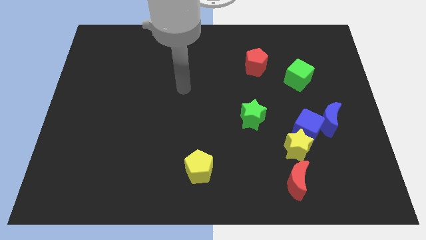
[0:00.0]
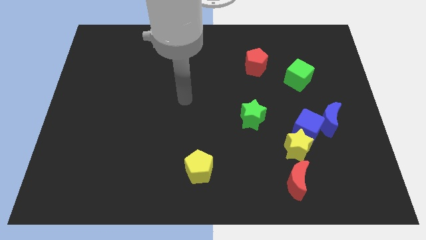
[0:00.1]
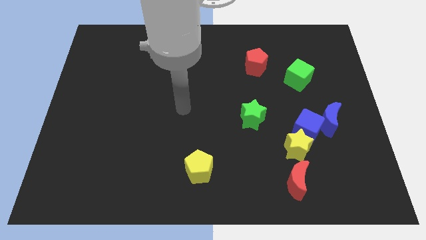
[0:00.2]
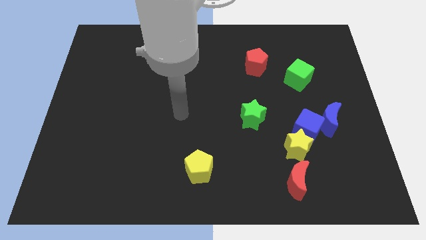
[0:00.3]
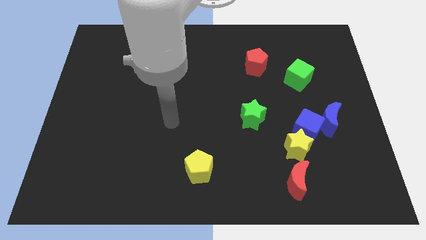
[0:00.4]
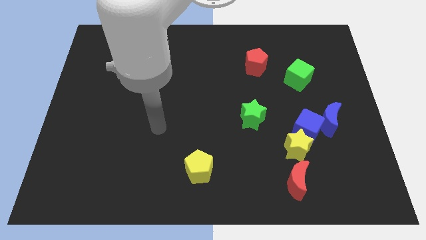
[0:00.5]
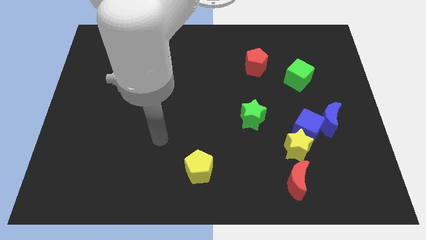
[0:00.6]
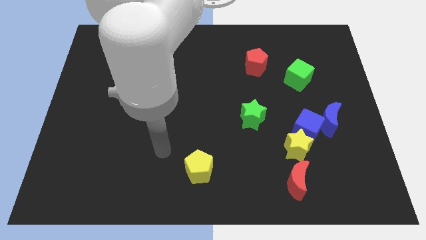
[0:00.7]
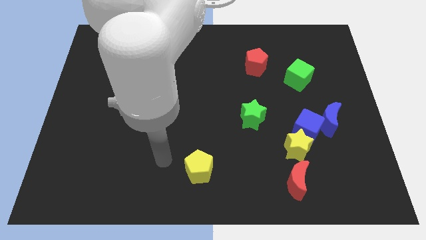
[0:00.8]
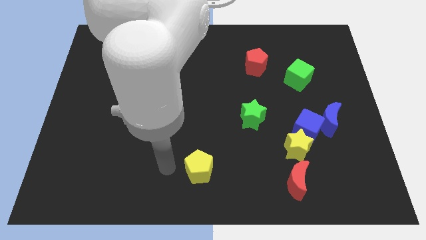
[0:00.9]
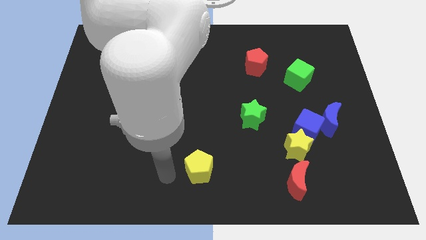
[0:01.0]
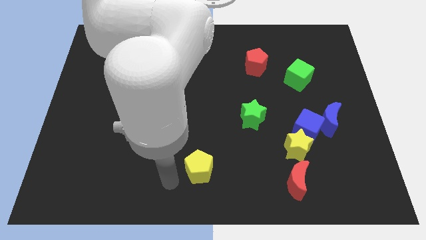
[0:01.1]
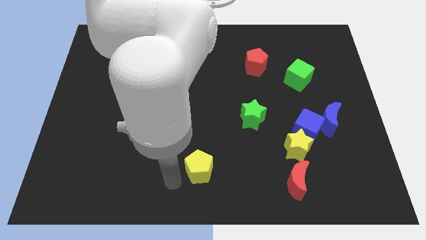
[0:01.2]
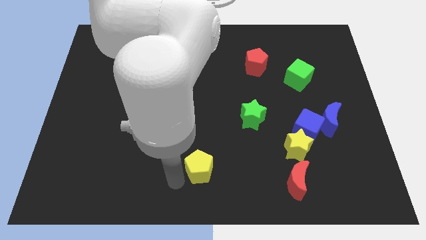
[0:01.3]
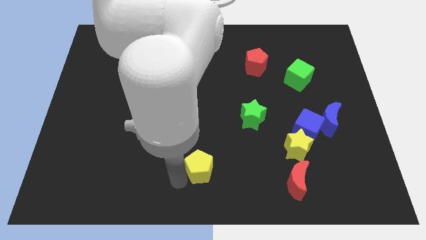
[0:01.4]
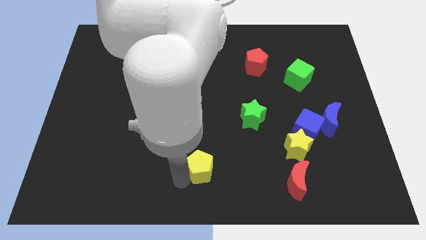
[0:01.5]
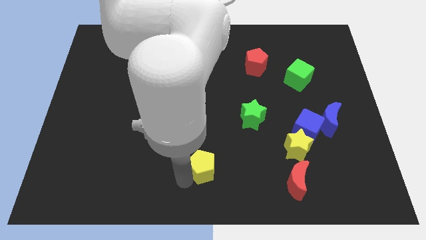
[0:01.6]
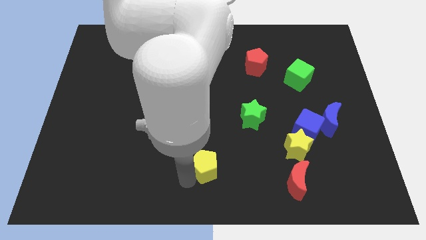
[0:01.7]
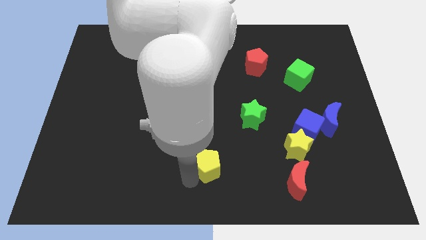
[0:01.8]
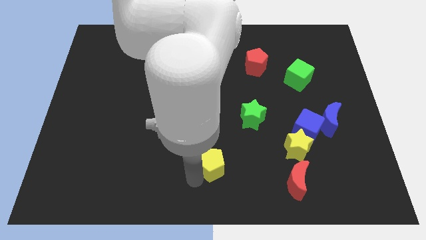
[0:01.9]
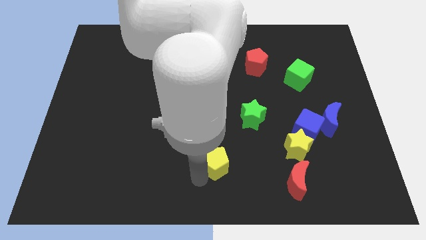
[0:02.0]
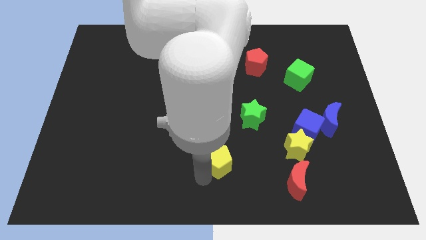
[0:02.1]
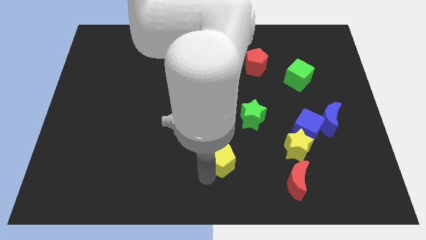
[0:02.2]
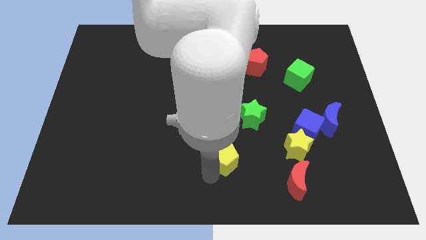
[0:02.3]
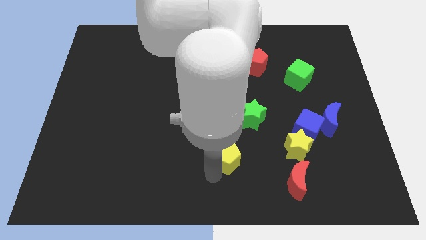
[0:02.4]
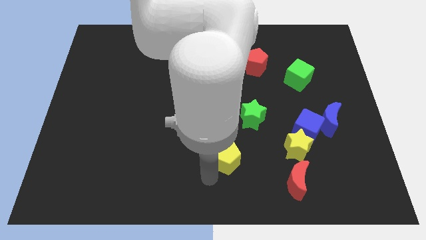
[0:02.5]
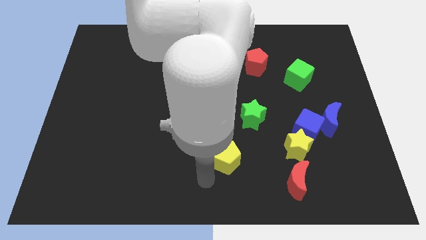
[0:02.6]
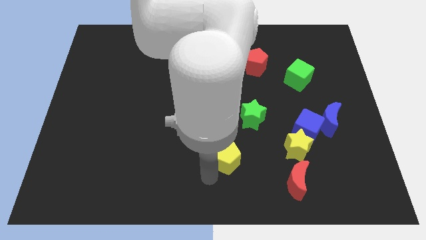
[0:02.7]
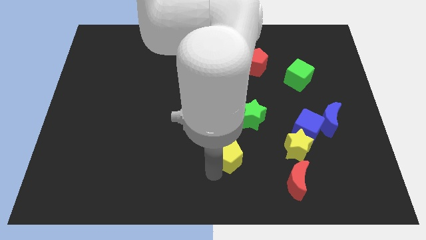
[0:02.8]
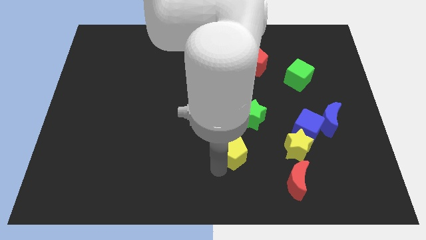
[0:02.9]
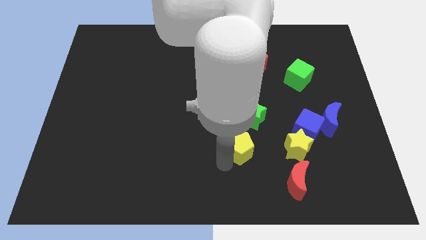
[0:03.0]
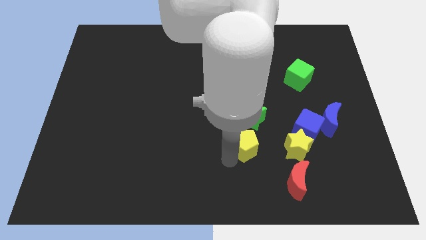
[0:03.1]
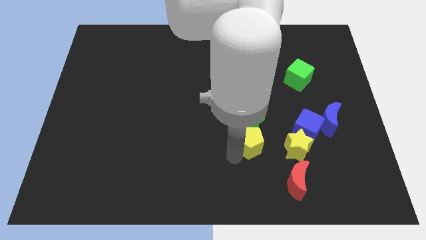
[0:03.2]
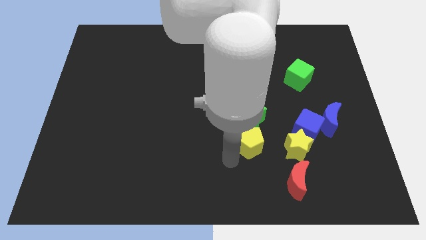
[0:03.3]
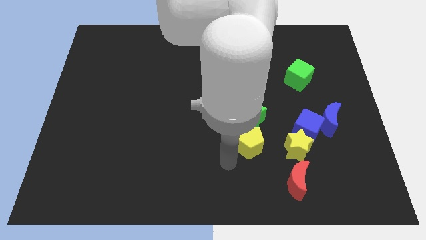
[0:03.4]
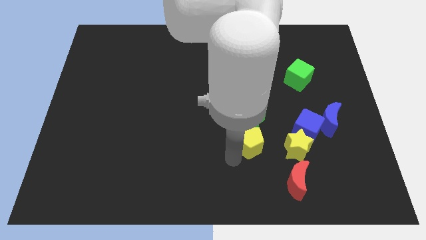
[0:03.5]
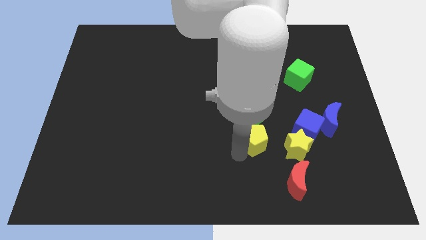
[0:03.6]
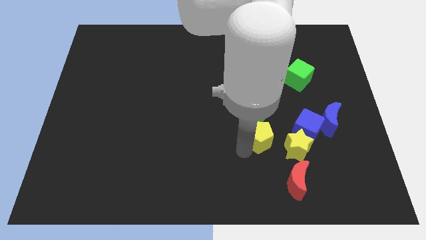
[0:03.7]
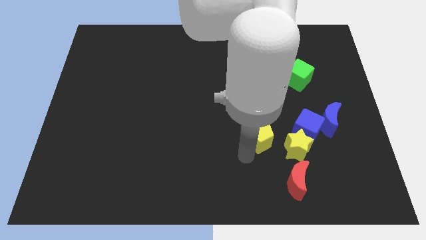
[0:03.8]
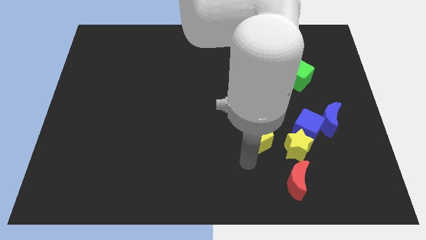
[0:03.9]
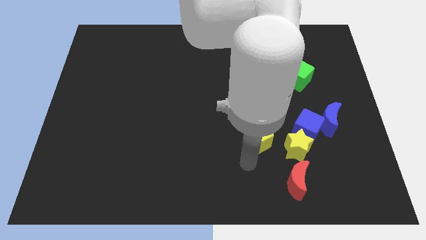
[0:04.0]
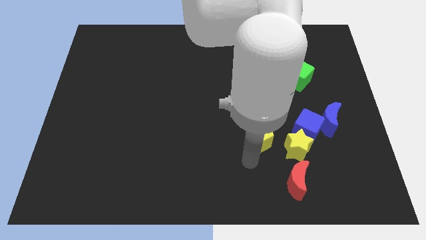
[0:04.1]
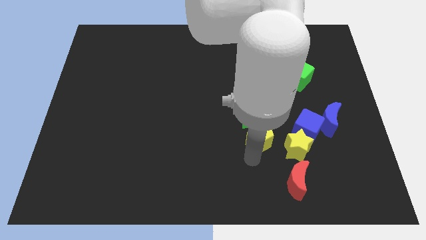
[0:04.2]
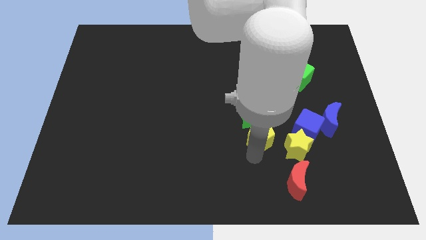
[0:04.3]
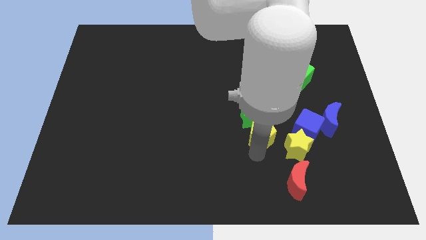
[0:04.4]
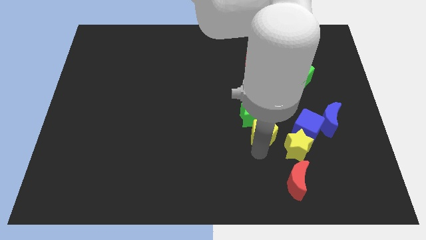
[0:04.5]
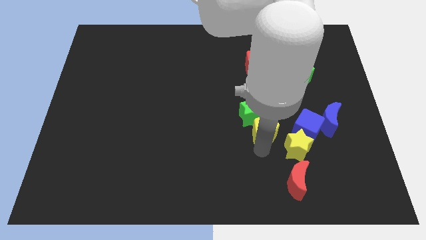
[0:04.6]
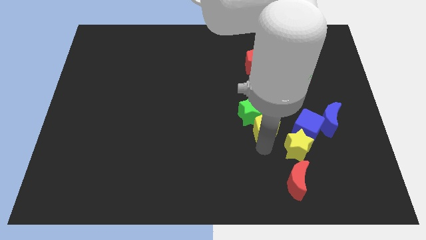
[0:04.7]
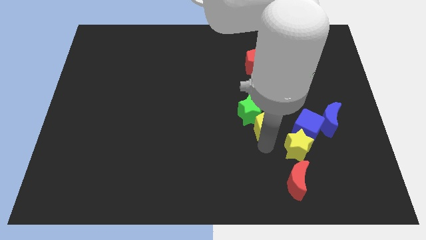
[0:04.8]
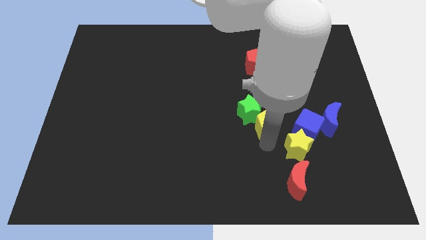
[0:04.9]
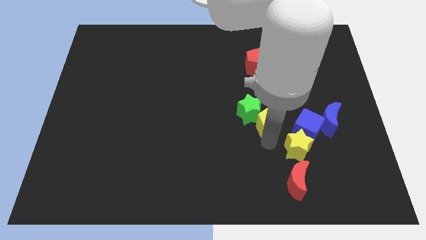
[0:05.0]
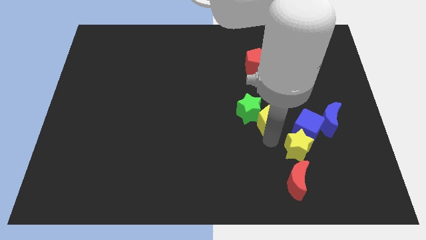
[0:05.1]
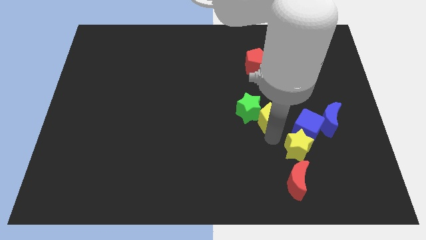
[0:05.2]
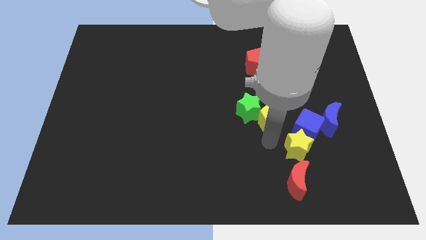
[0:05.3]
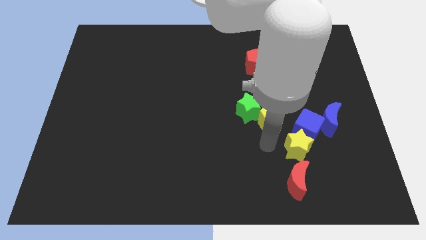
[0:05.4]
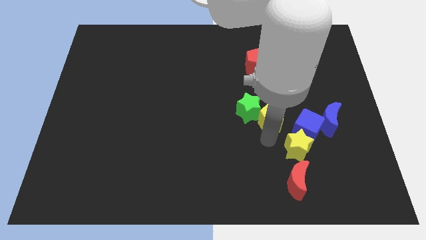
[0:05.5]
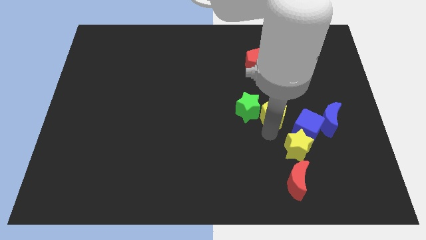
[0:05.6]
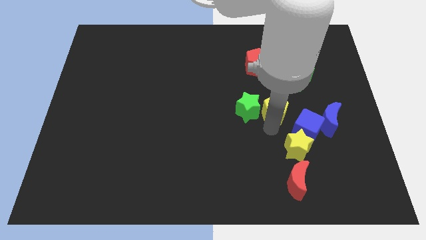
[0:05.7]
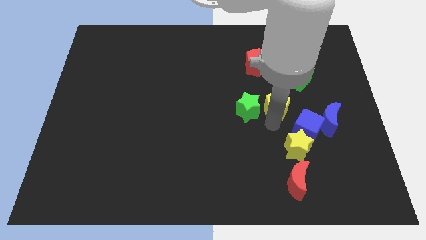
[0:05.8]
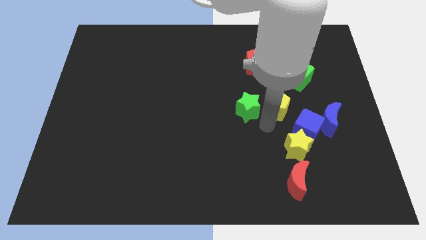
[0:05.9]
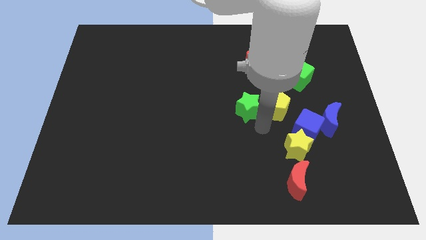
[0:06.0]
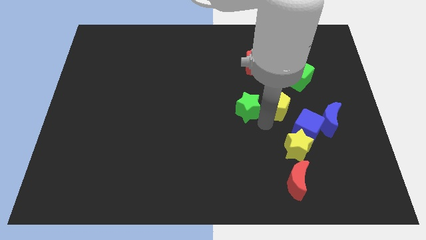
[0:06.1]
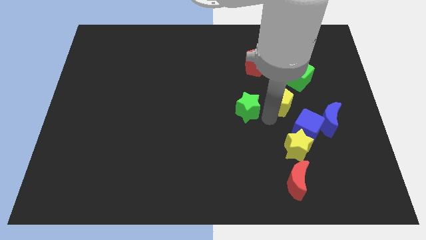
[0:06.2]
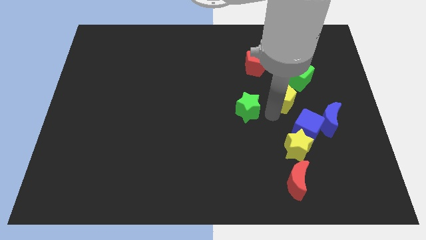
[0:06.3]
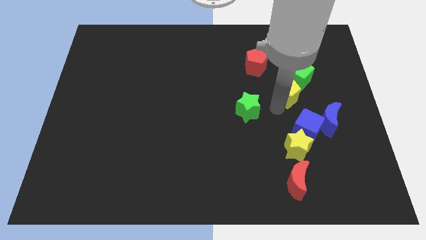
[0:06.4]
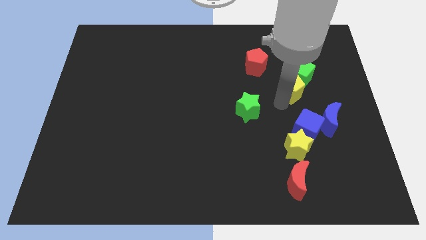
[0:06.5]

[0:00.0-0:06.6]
slide the yellow pentagon close to the green cube

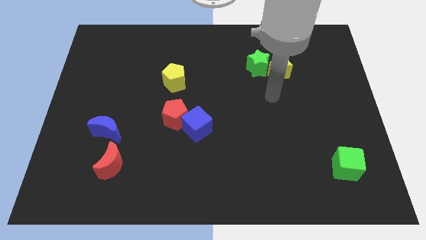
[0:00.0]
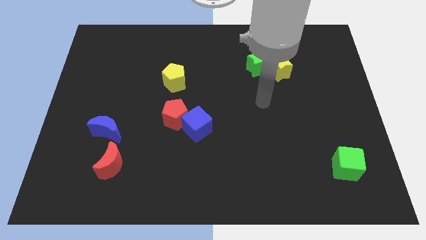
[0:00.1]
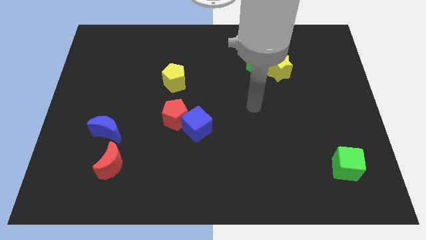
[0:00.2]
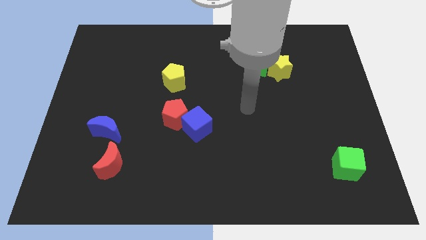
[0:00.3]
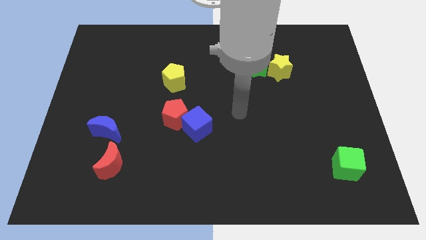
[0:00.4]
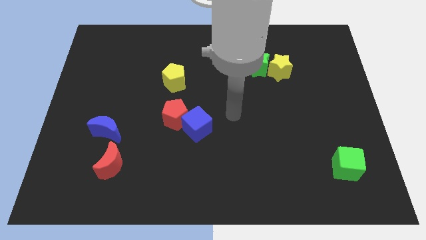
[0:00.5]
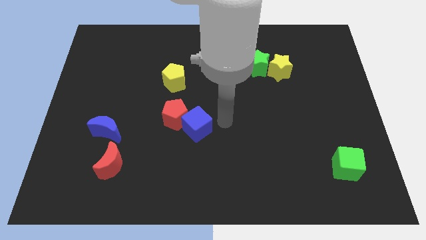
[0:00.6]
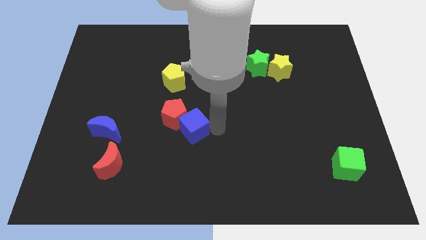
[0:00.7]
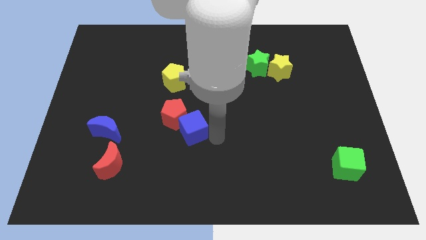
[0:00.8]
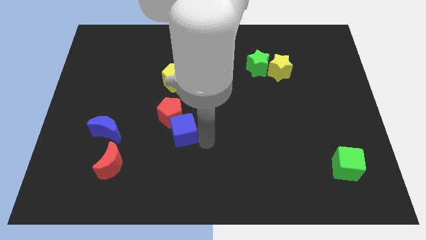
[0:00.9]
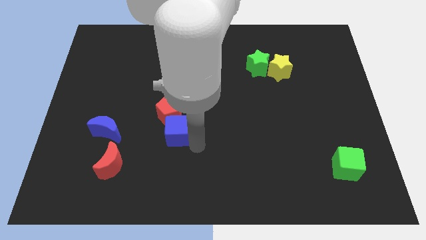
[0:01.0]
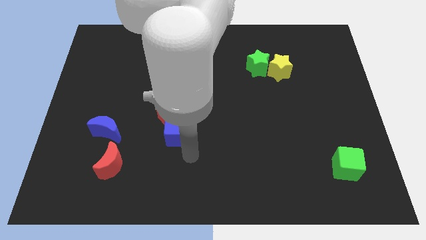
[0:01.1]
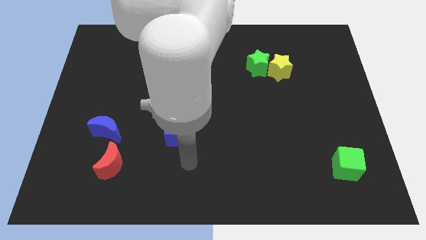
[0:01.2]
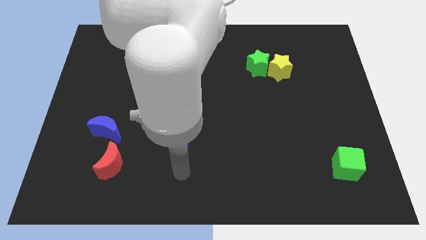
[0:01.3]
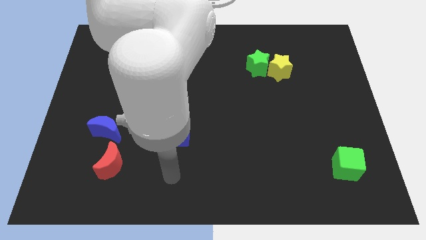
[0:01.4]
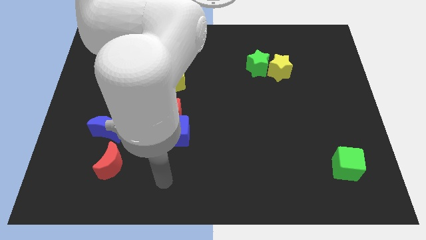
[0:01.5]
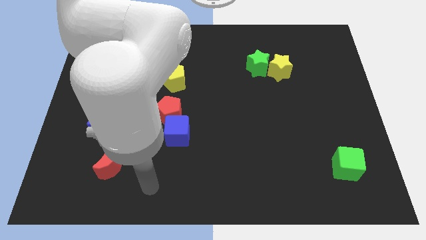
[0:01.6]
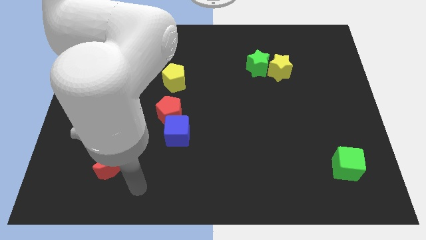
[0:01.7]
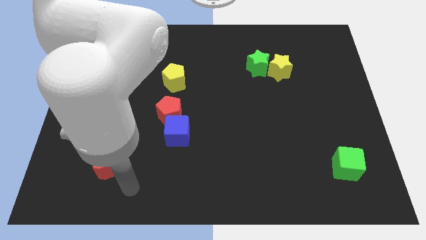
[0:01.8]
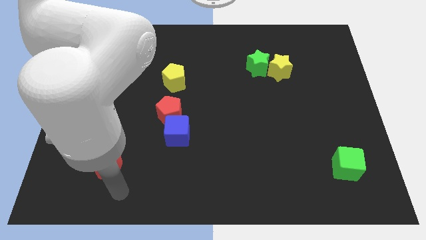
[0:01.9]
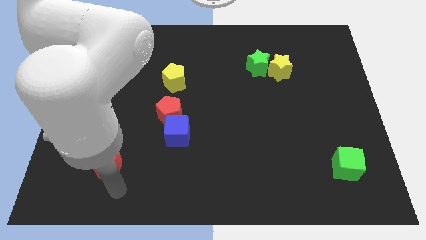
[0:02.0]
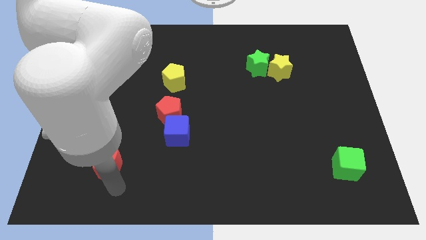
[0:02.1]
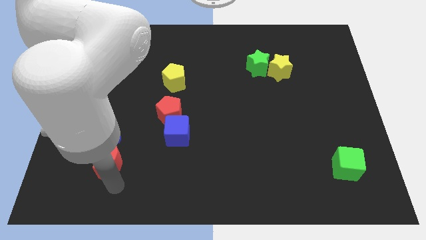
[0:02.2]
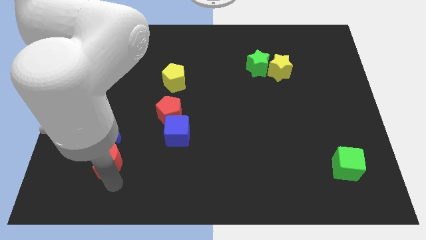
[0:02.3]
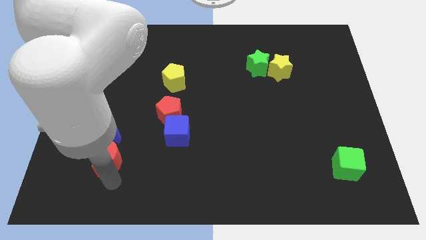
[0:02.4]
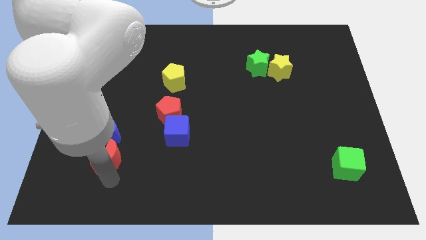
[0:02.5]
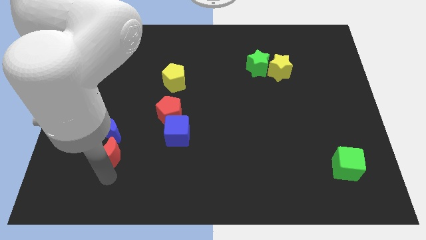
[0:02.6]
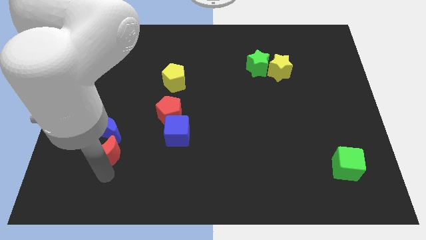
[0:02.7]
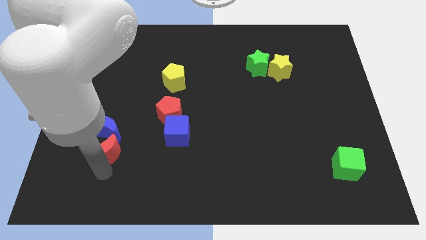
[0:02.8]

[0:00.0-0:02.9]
move the red moon next to the blue moon
